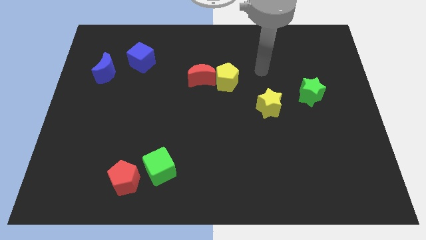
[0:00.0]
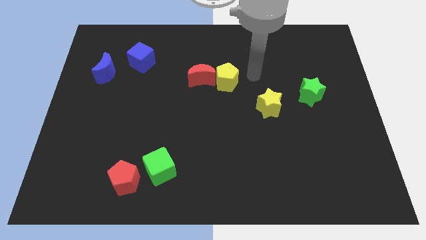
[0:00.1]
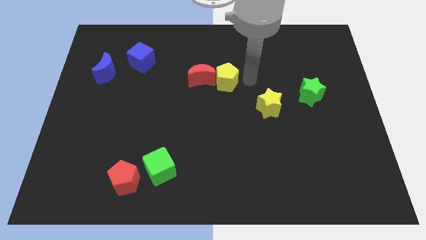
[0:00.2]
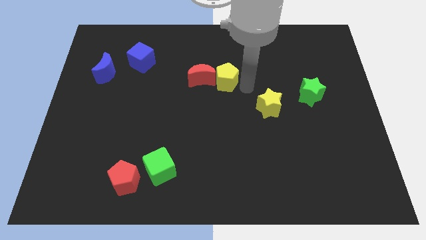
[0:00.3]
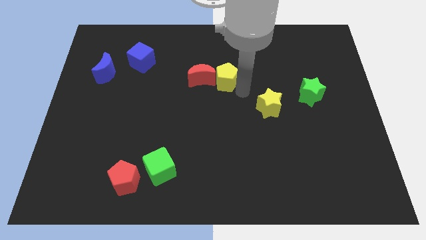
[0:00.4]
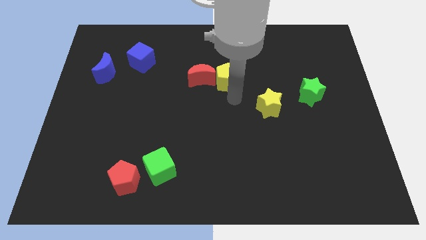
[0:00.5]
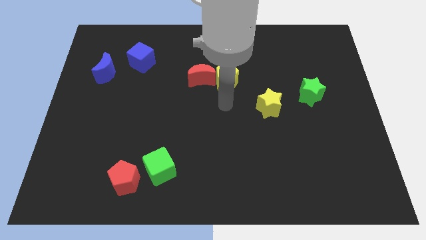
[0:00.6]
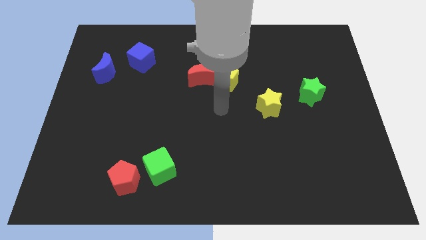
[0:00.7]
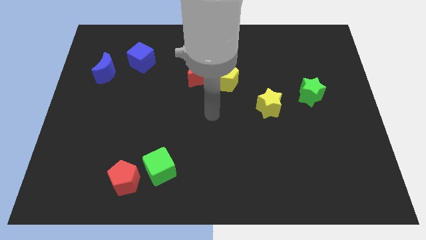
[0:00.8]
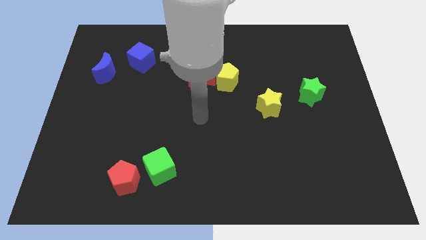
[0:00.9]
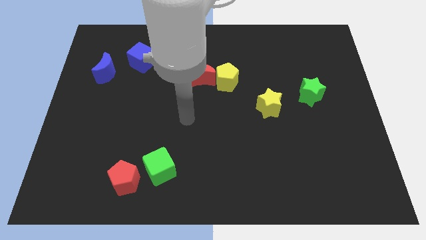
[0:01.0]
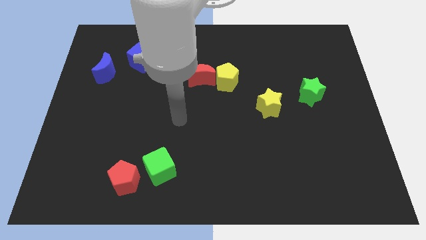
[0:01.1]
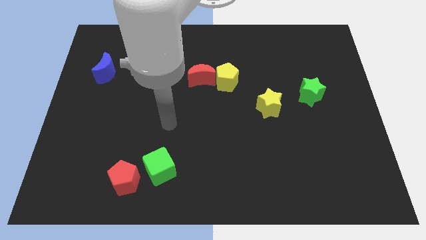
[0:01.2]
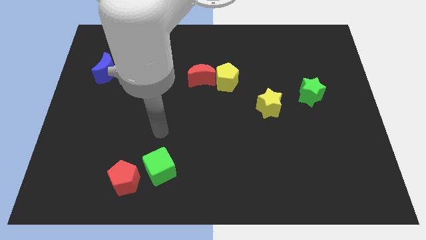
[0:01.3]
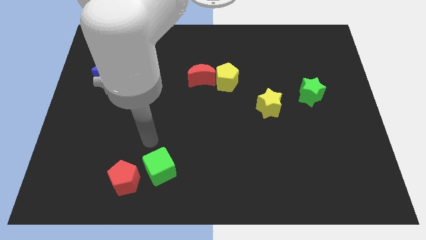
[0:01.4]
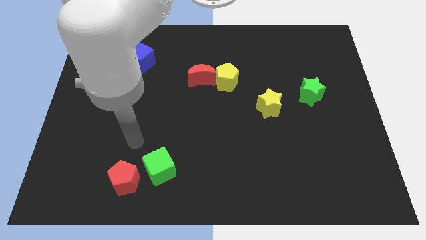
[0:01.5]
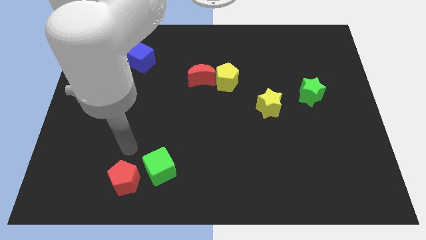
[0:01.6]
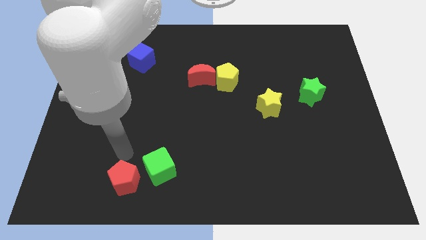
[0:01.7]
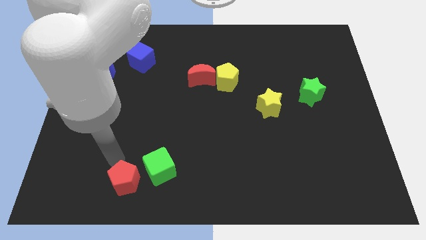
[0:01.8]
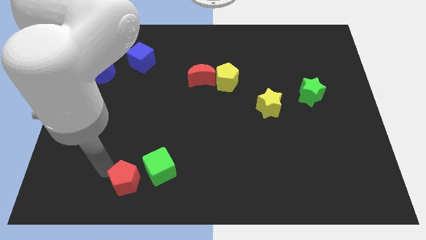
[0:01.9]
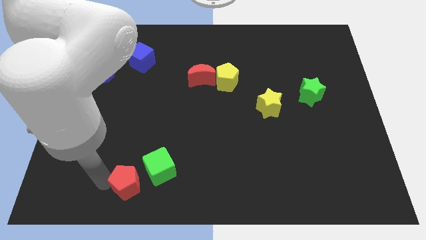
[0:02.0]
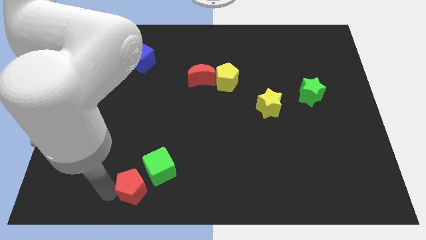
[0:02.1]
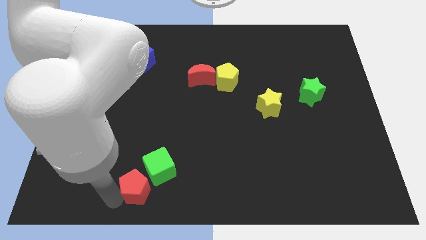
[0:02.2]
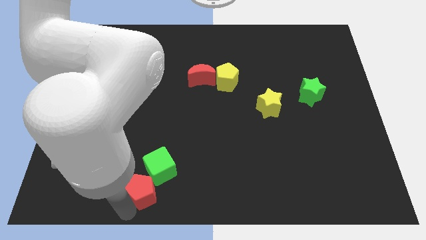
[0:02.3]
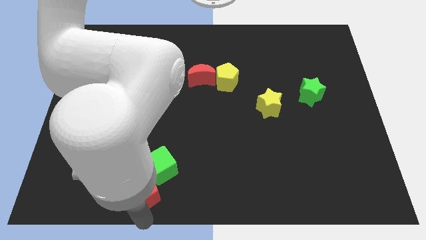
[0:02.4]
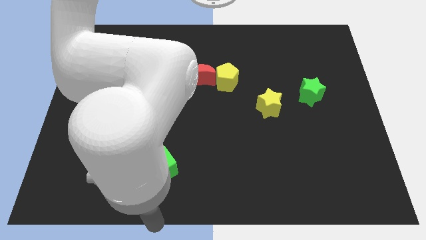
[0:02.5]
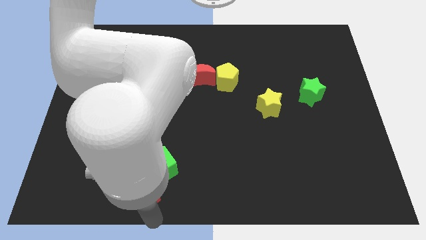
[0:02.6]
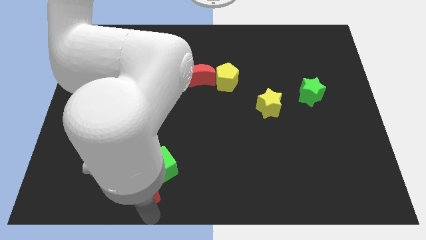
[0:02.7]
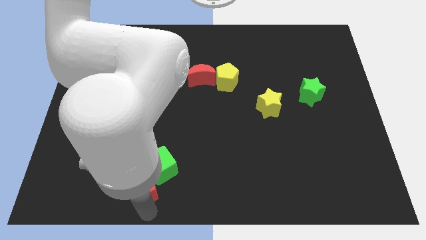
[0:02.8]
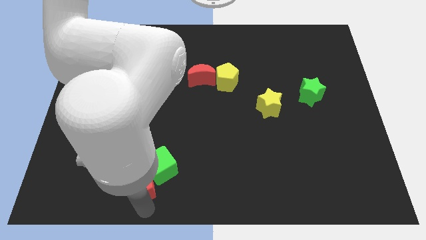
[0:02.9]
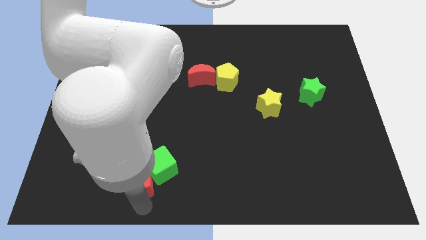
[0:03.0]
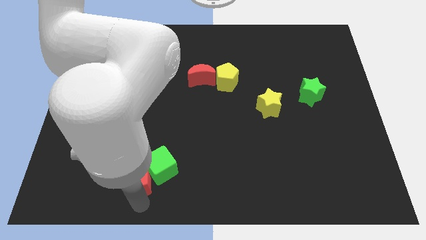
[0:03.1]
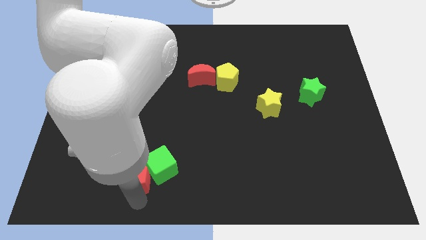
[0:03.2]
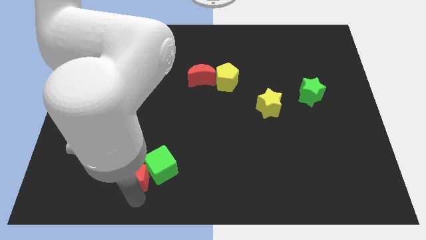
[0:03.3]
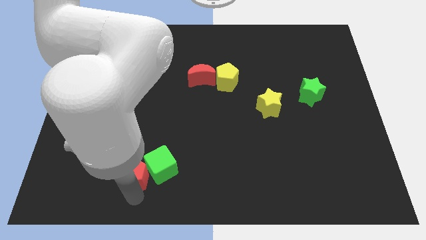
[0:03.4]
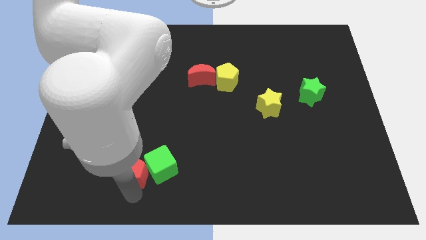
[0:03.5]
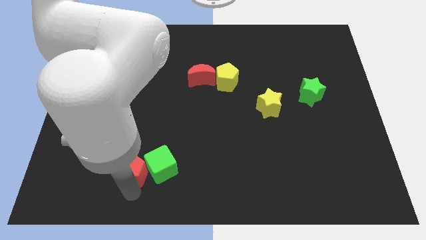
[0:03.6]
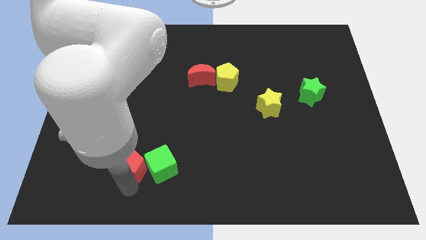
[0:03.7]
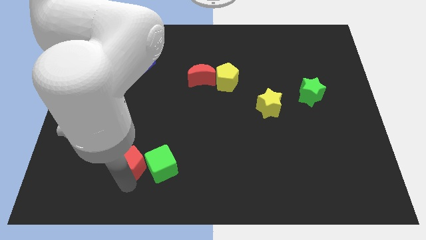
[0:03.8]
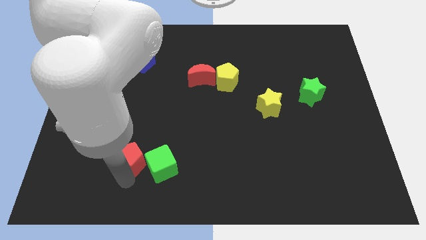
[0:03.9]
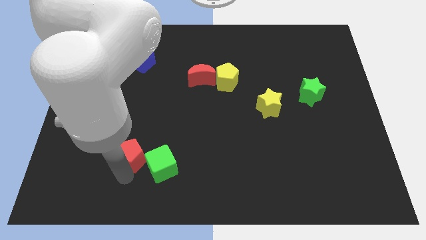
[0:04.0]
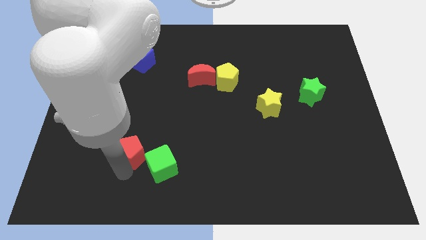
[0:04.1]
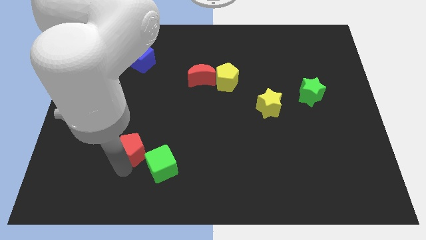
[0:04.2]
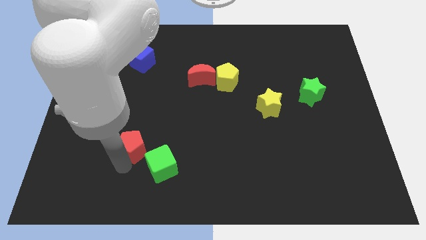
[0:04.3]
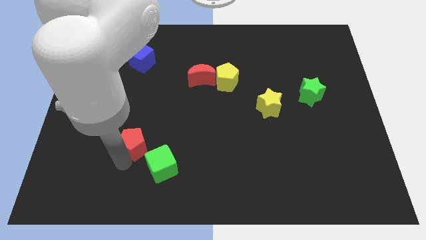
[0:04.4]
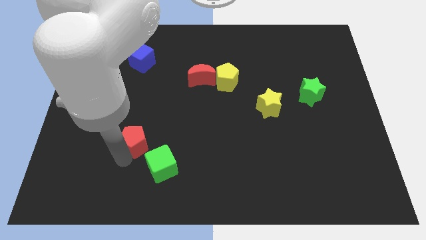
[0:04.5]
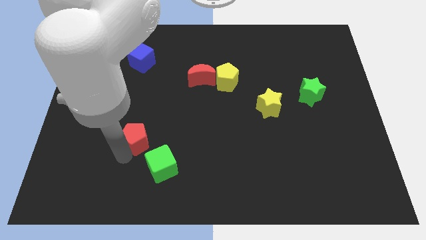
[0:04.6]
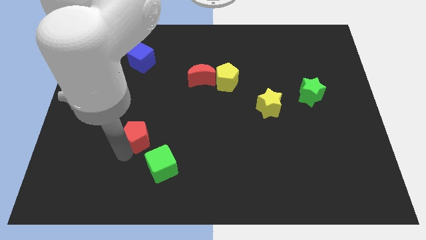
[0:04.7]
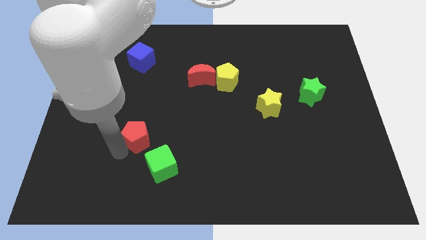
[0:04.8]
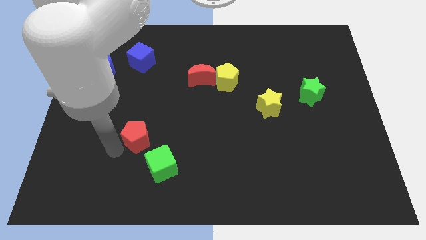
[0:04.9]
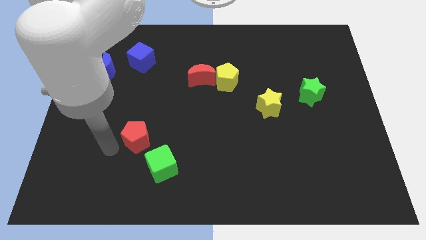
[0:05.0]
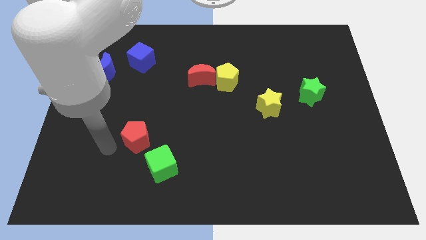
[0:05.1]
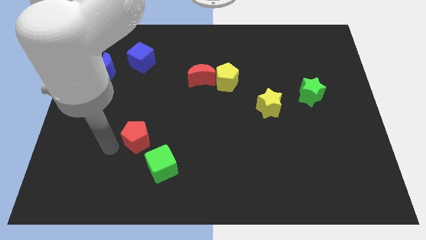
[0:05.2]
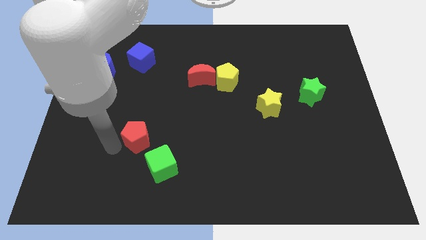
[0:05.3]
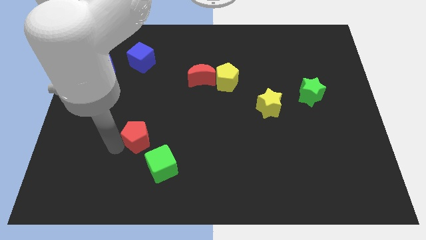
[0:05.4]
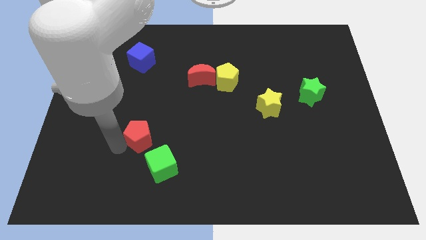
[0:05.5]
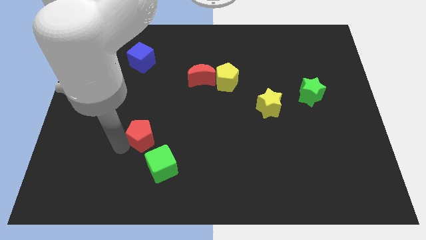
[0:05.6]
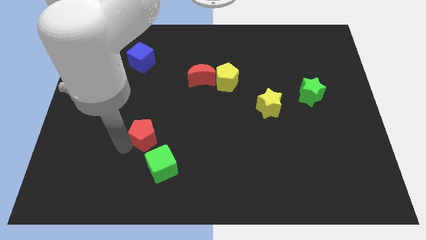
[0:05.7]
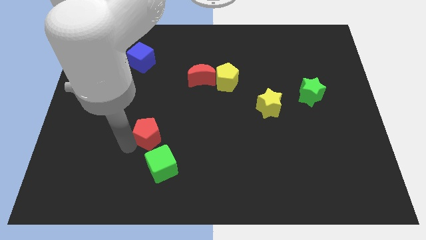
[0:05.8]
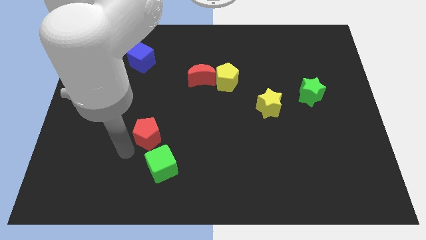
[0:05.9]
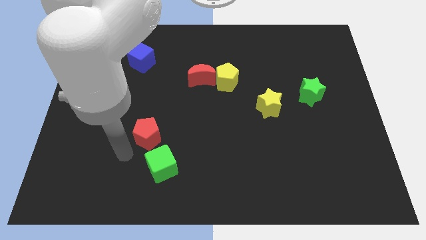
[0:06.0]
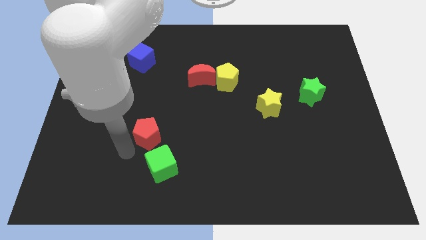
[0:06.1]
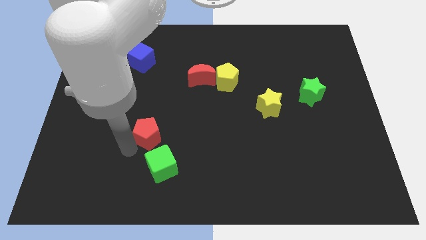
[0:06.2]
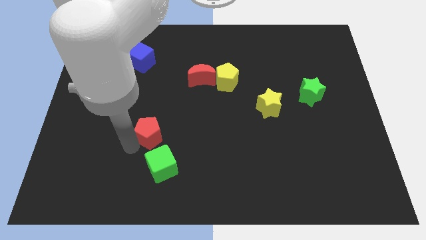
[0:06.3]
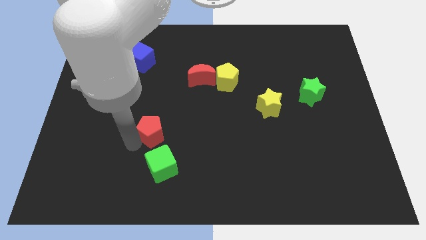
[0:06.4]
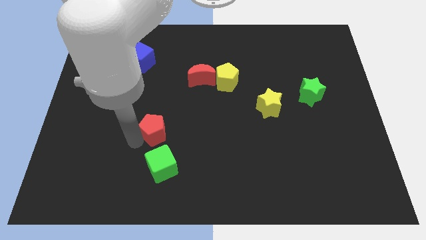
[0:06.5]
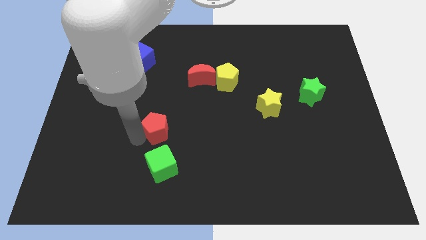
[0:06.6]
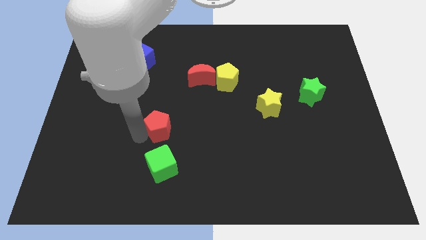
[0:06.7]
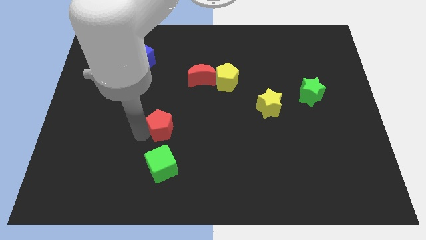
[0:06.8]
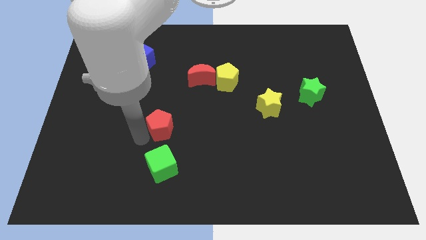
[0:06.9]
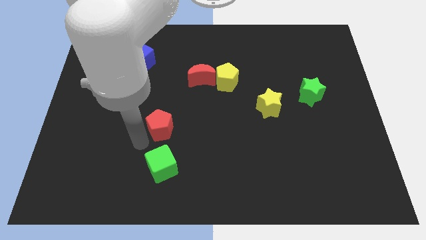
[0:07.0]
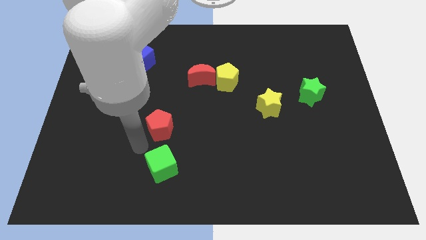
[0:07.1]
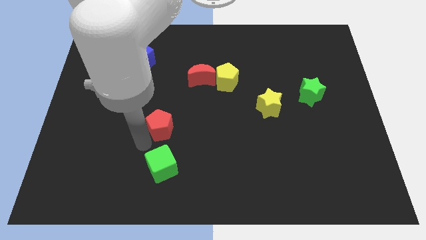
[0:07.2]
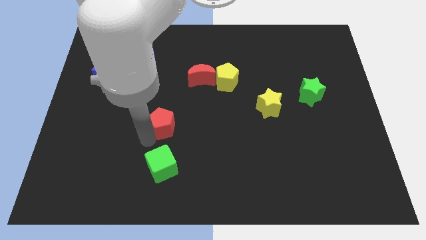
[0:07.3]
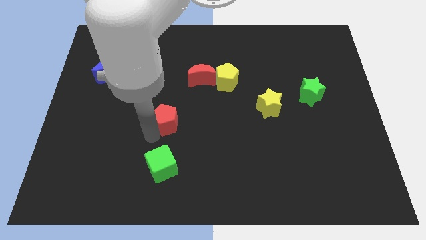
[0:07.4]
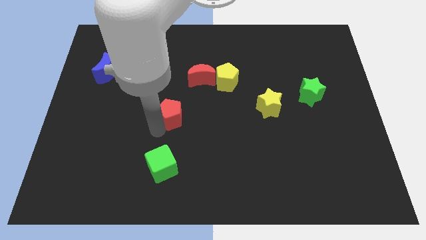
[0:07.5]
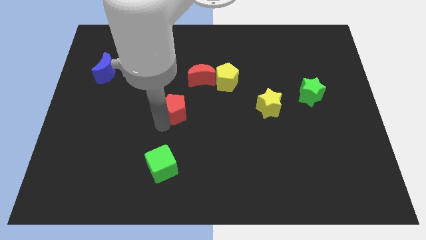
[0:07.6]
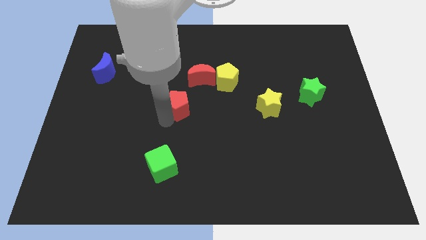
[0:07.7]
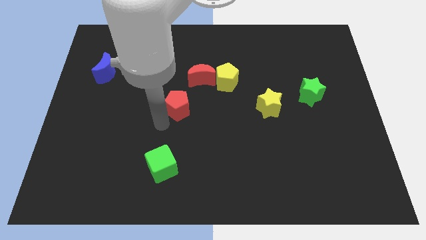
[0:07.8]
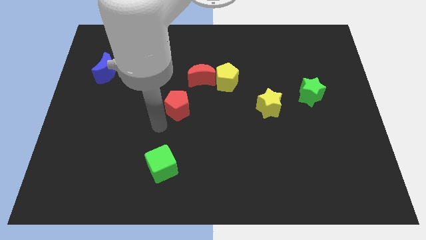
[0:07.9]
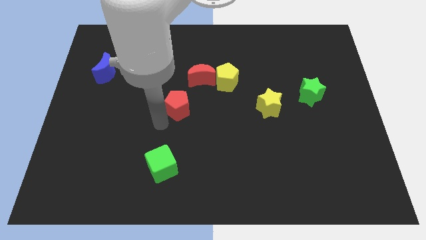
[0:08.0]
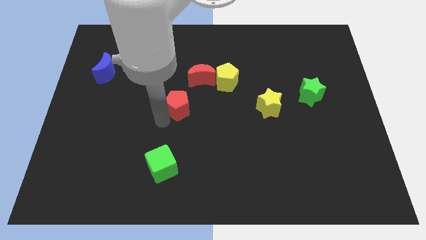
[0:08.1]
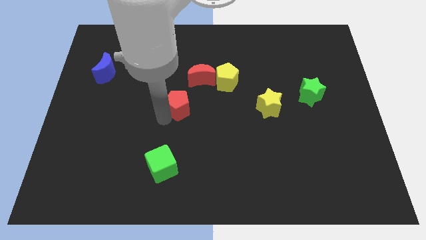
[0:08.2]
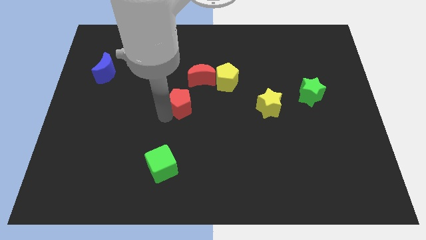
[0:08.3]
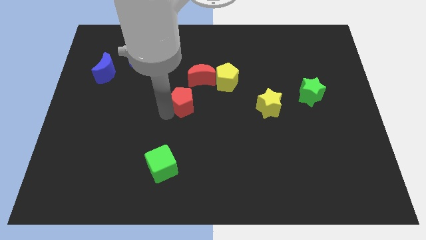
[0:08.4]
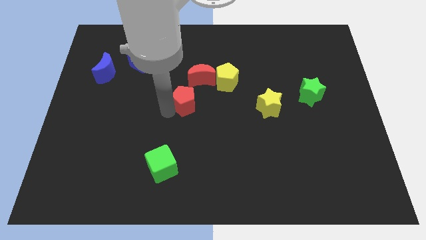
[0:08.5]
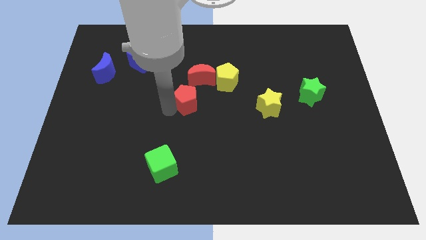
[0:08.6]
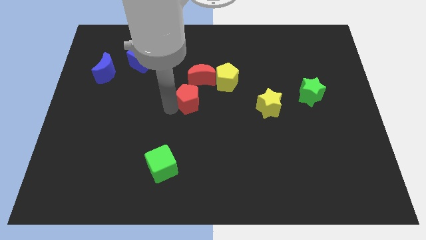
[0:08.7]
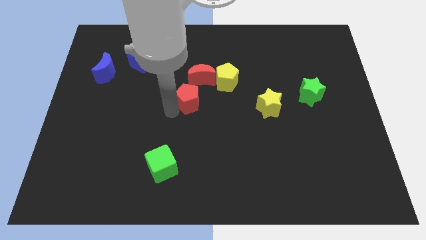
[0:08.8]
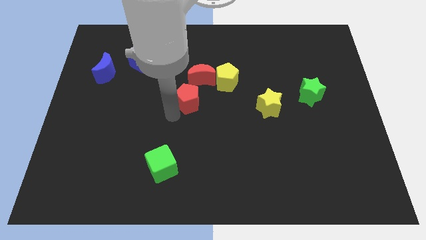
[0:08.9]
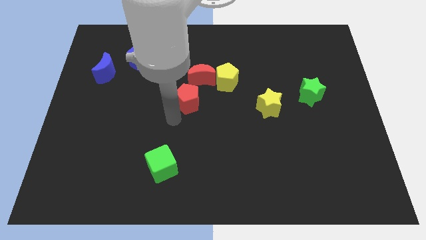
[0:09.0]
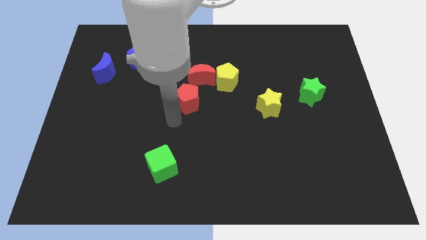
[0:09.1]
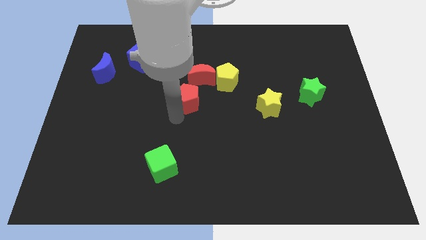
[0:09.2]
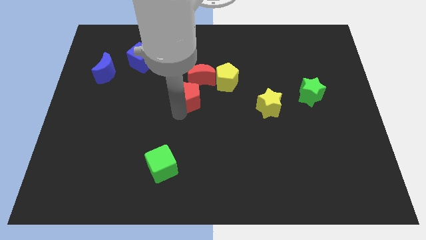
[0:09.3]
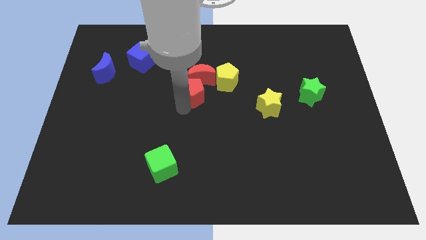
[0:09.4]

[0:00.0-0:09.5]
move the red pentagon close to the red moon
